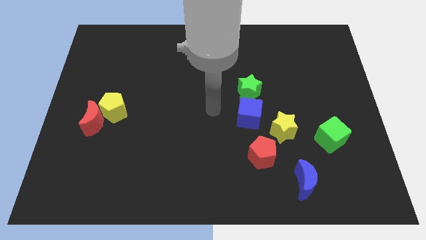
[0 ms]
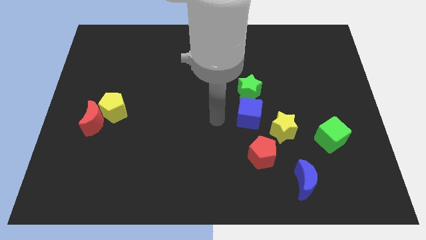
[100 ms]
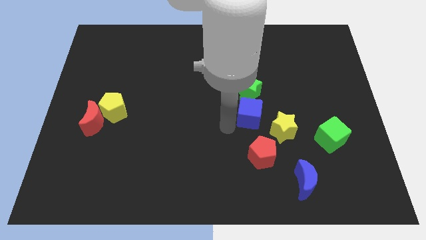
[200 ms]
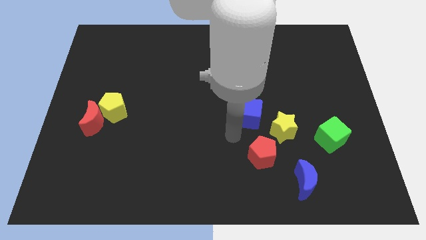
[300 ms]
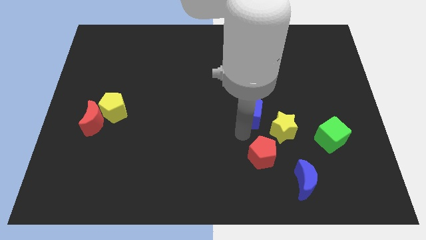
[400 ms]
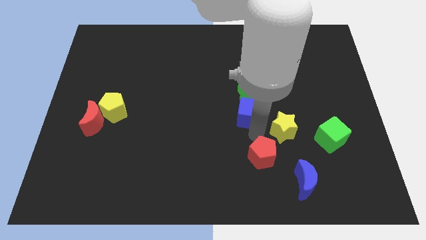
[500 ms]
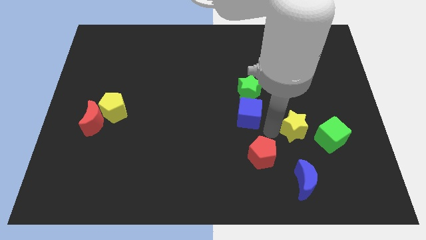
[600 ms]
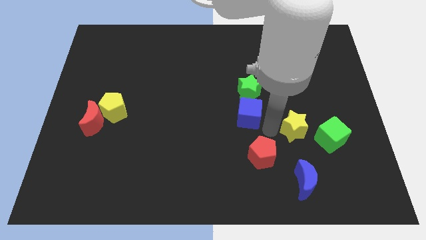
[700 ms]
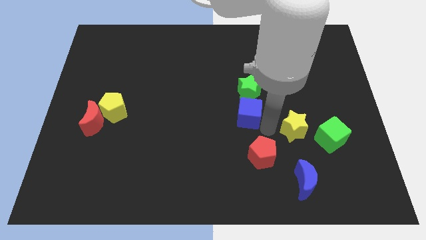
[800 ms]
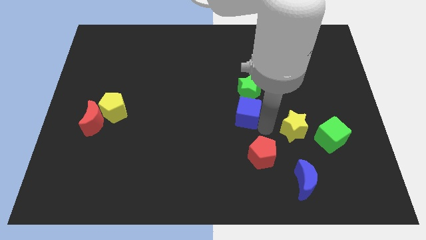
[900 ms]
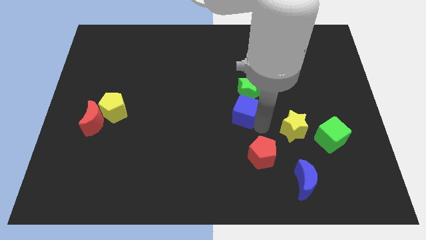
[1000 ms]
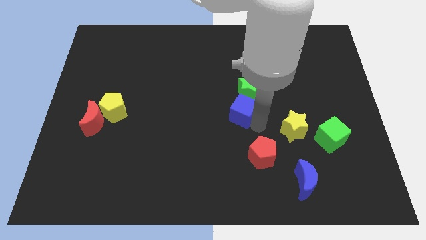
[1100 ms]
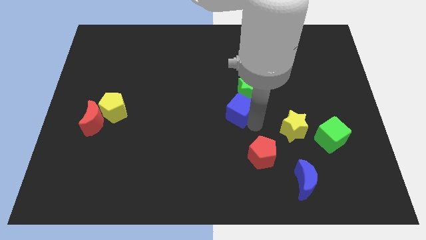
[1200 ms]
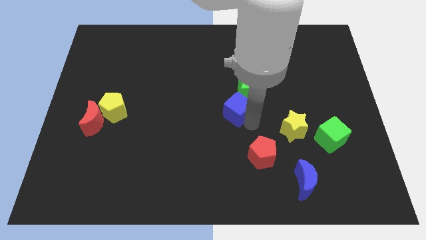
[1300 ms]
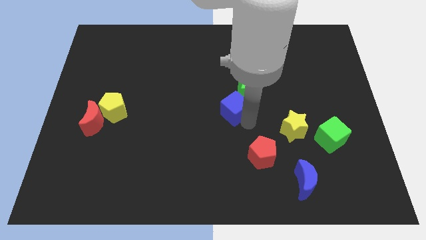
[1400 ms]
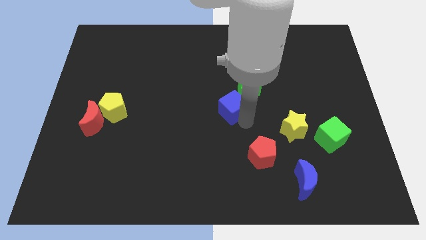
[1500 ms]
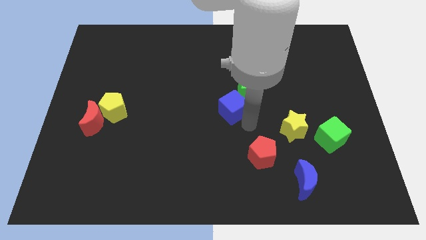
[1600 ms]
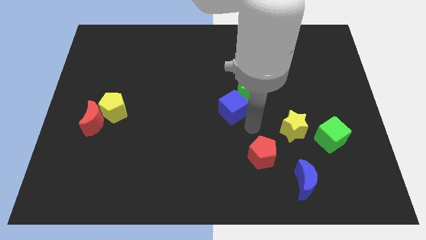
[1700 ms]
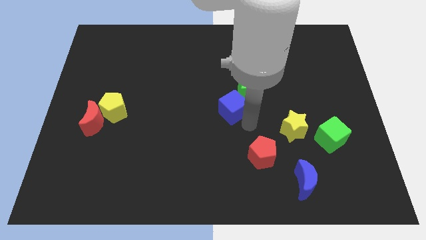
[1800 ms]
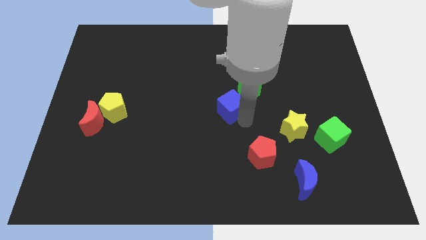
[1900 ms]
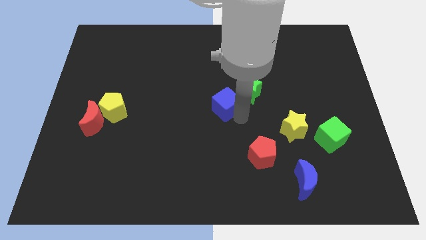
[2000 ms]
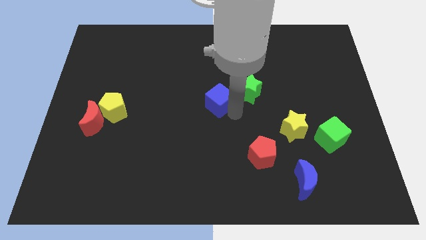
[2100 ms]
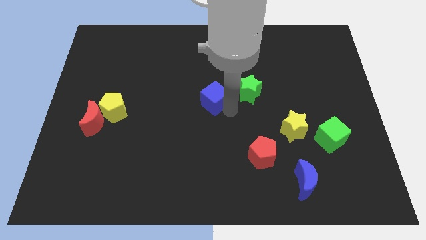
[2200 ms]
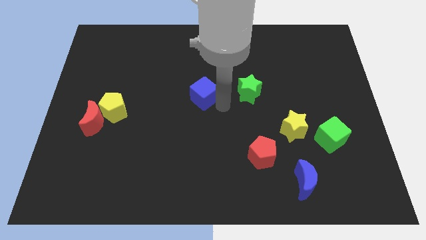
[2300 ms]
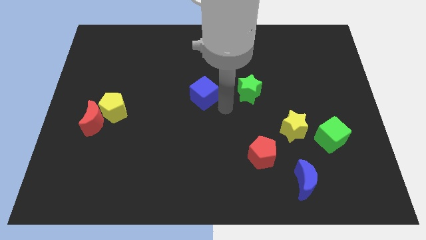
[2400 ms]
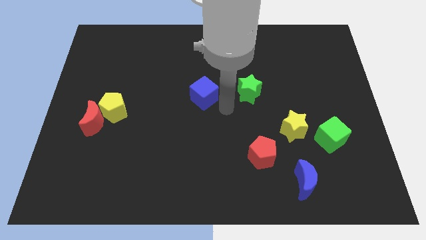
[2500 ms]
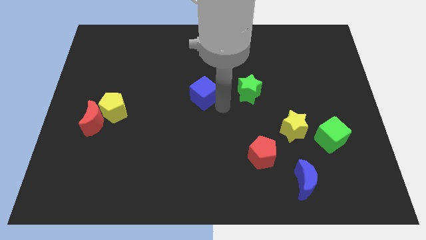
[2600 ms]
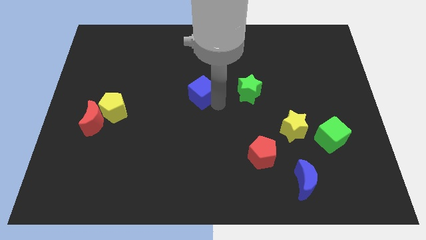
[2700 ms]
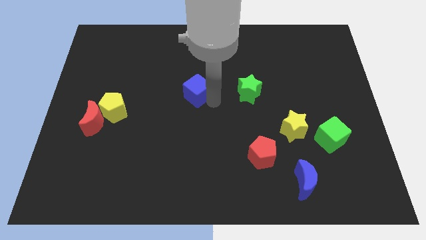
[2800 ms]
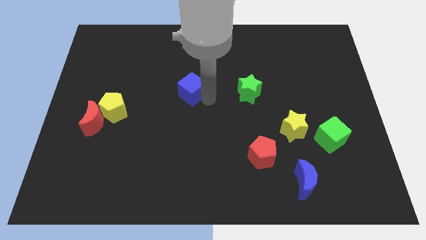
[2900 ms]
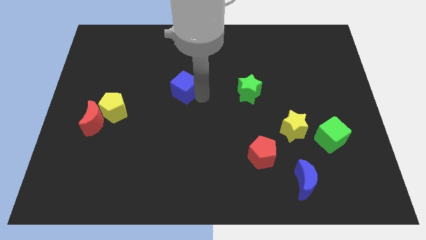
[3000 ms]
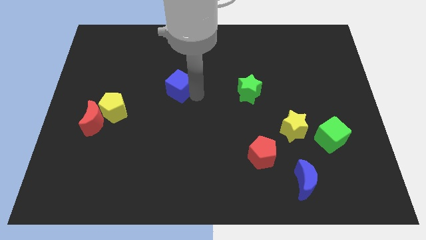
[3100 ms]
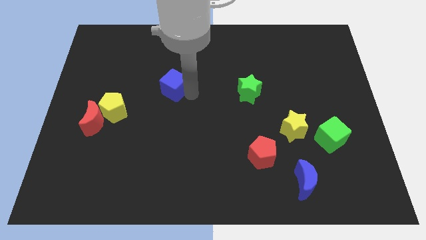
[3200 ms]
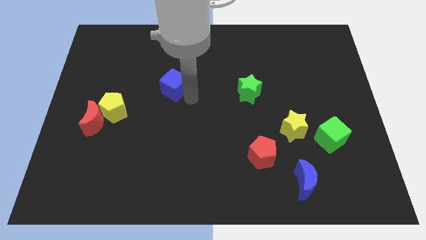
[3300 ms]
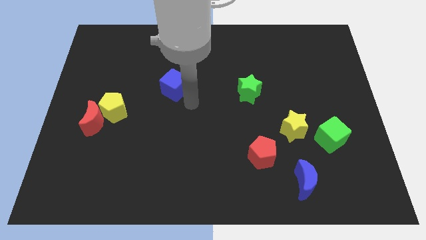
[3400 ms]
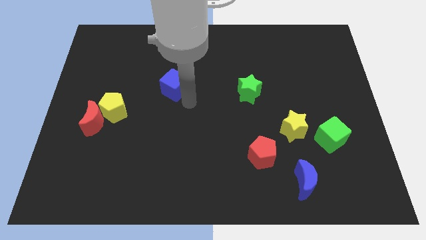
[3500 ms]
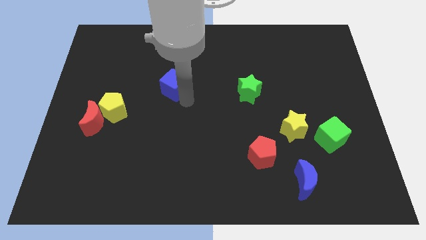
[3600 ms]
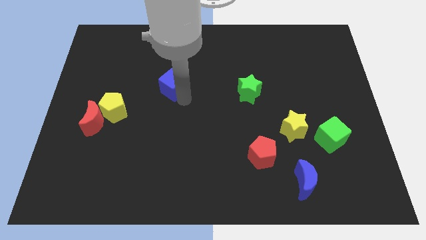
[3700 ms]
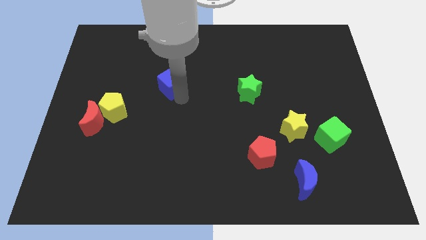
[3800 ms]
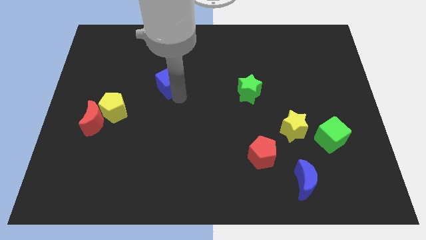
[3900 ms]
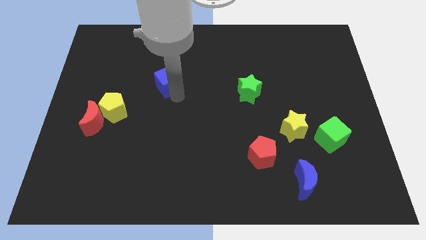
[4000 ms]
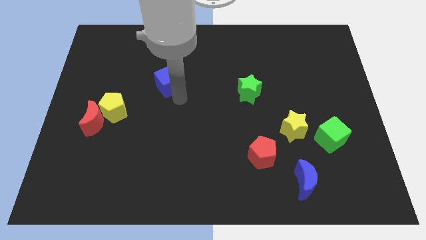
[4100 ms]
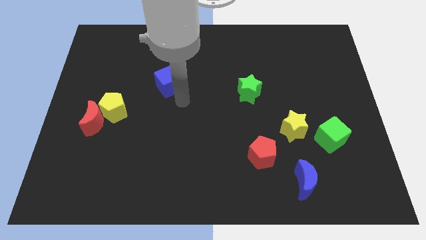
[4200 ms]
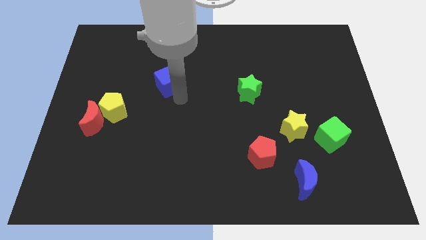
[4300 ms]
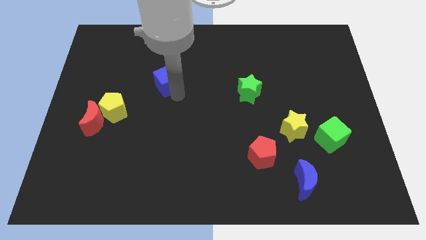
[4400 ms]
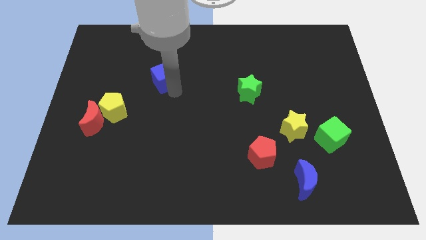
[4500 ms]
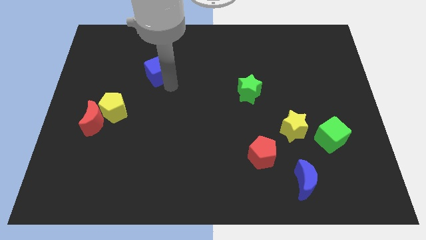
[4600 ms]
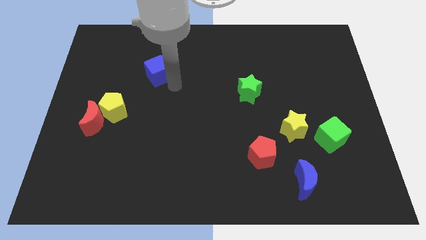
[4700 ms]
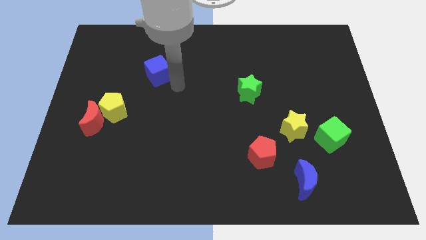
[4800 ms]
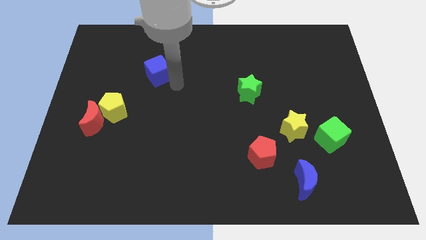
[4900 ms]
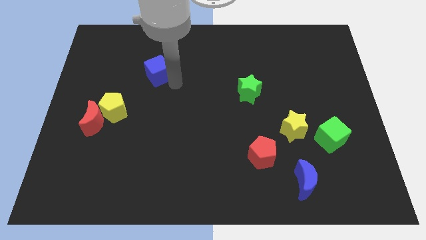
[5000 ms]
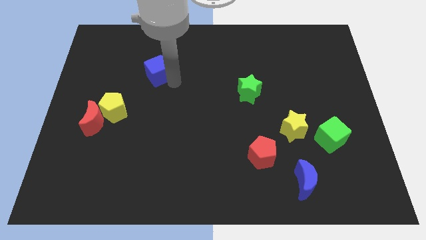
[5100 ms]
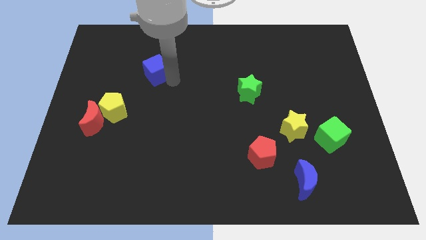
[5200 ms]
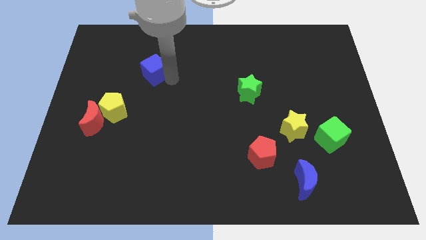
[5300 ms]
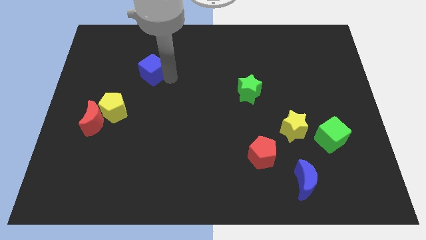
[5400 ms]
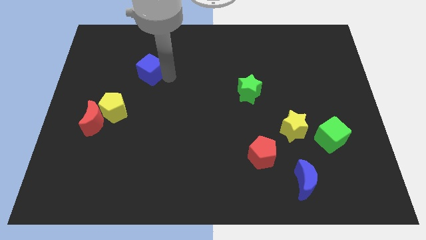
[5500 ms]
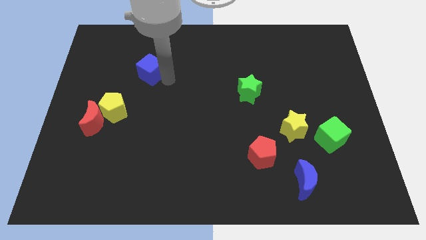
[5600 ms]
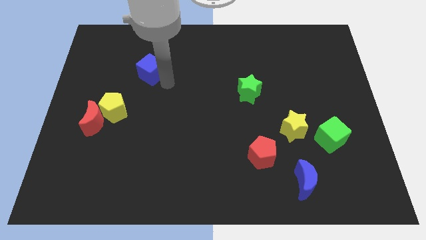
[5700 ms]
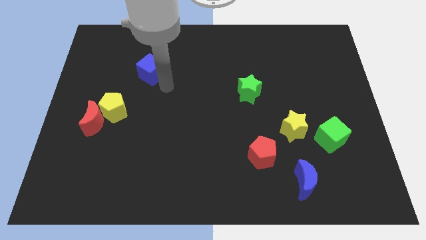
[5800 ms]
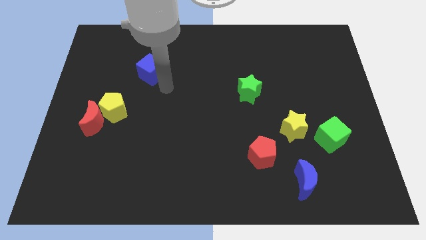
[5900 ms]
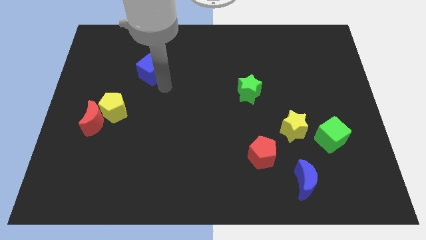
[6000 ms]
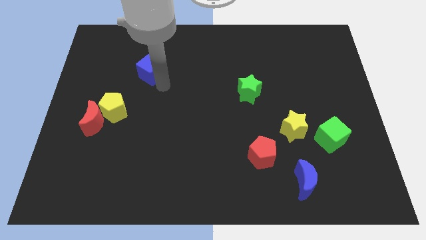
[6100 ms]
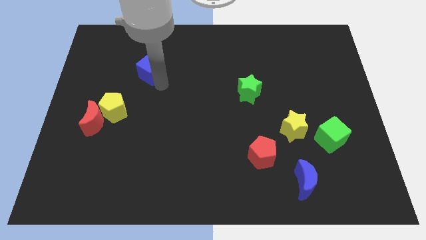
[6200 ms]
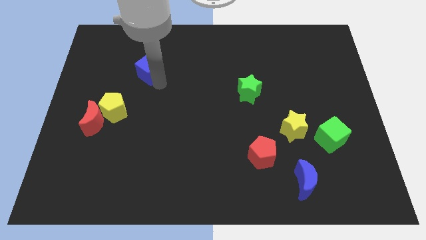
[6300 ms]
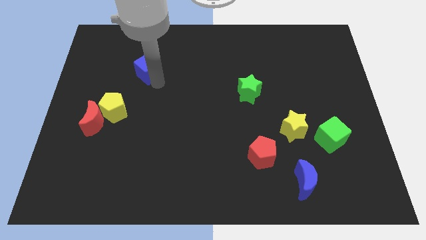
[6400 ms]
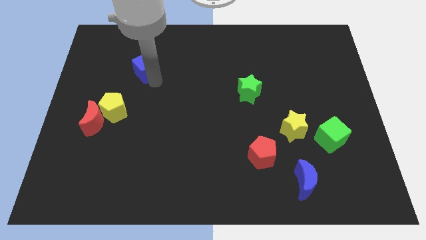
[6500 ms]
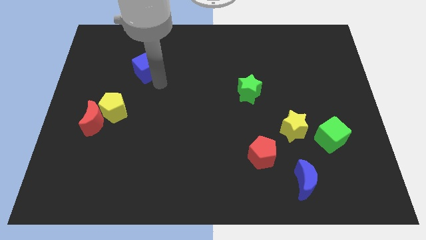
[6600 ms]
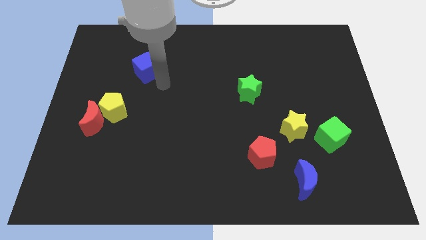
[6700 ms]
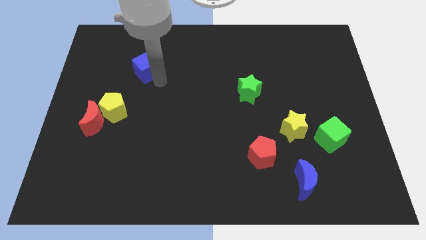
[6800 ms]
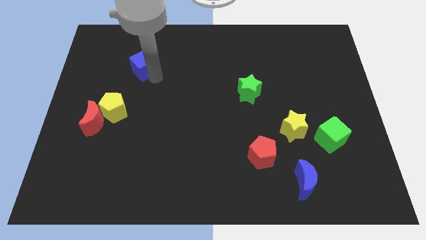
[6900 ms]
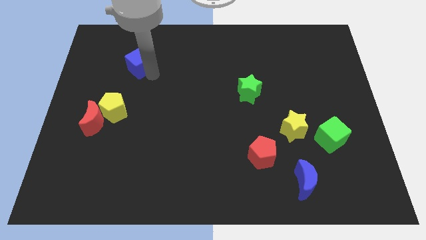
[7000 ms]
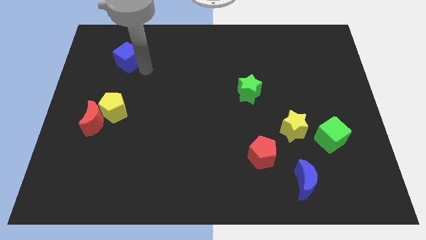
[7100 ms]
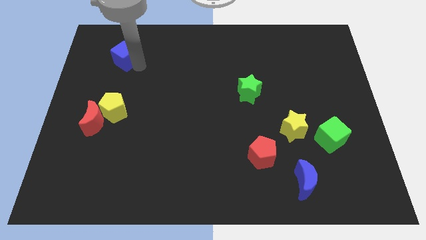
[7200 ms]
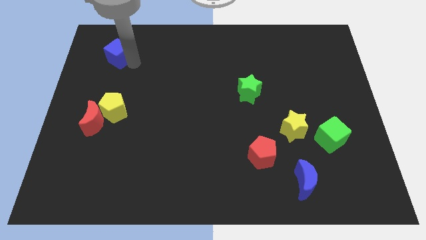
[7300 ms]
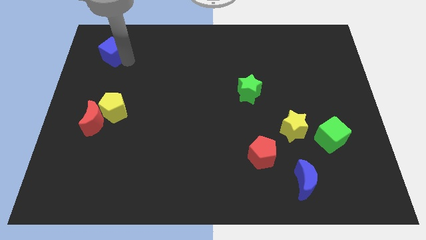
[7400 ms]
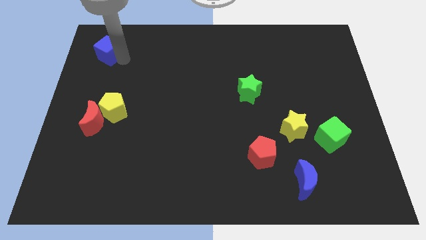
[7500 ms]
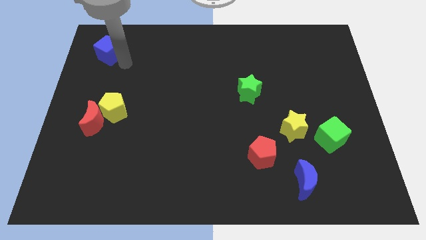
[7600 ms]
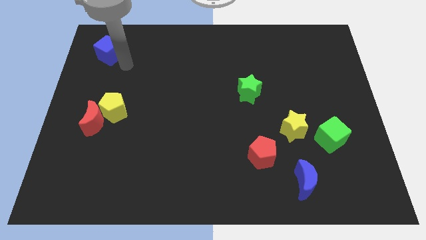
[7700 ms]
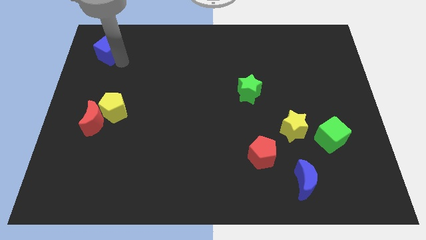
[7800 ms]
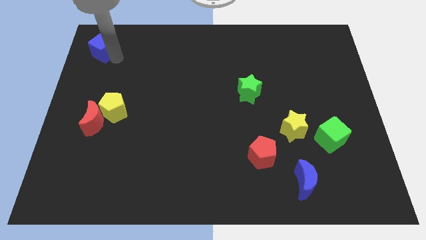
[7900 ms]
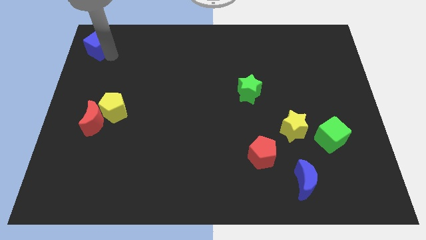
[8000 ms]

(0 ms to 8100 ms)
push the blue cube to the top left
